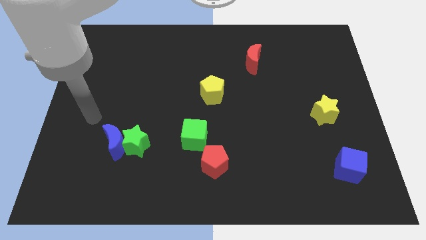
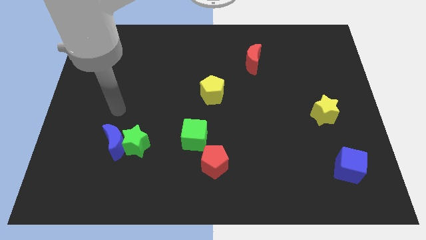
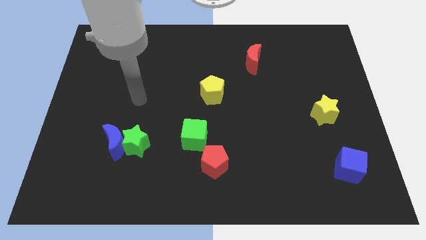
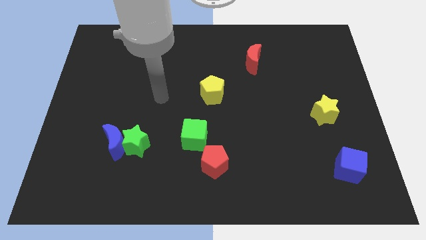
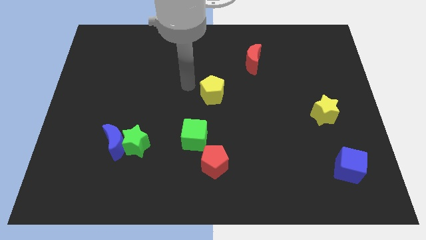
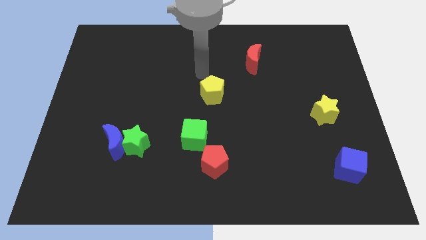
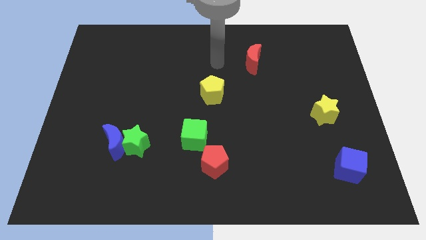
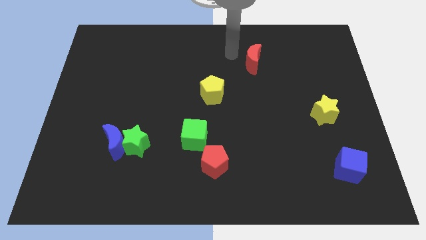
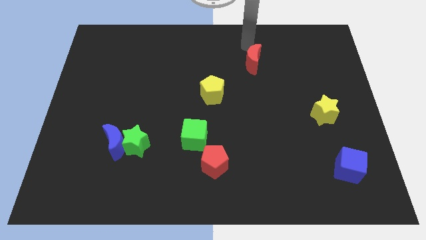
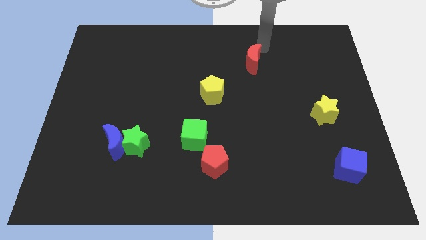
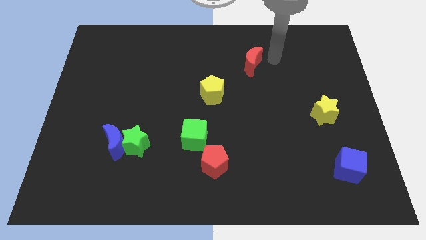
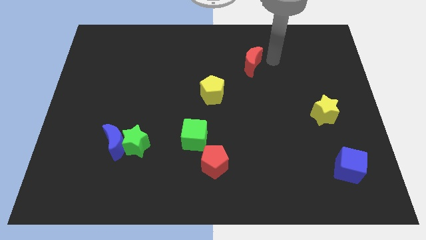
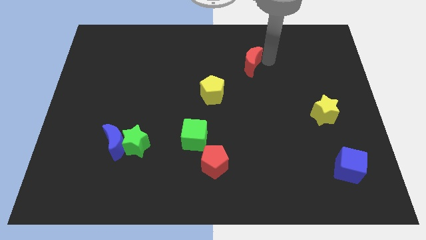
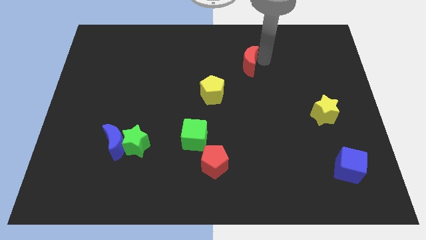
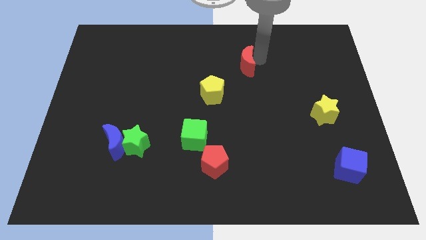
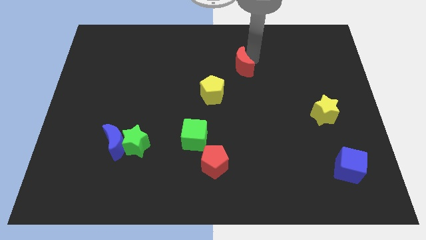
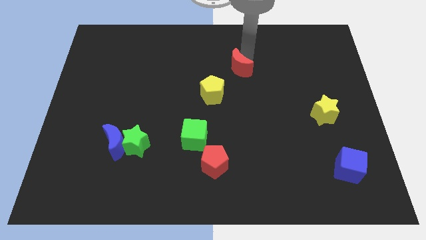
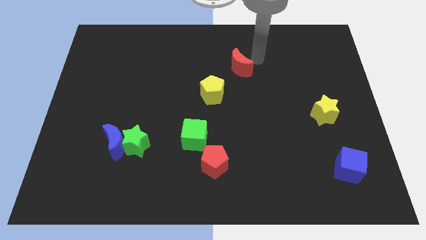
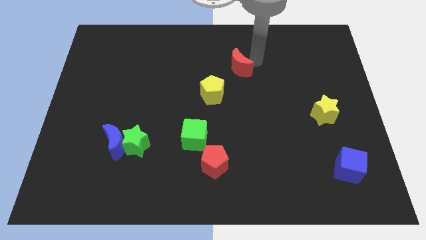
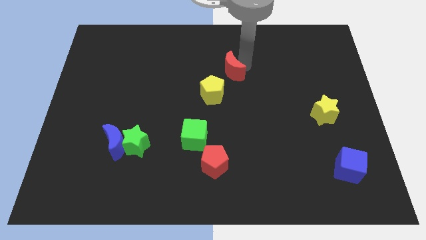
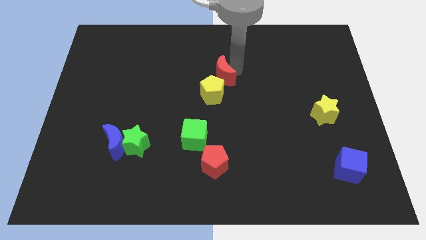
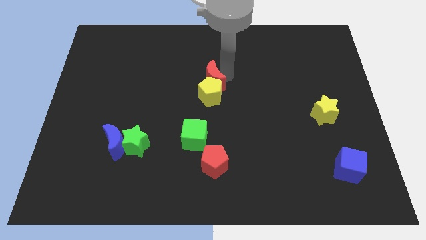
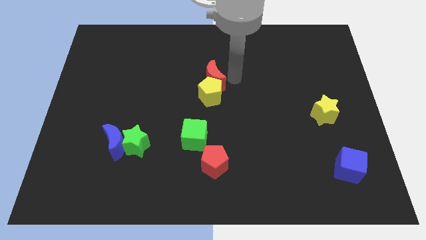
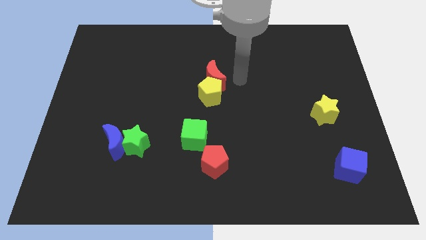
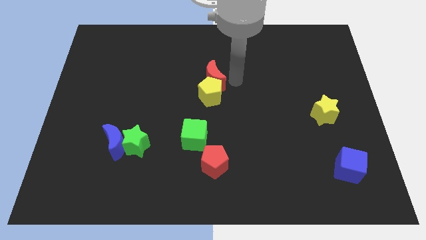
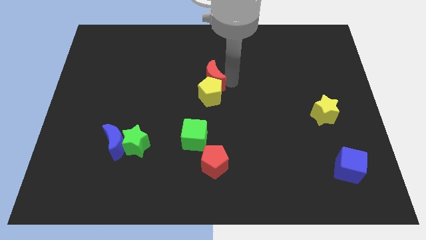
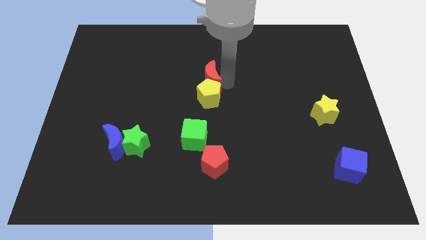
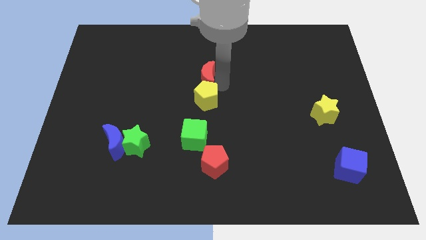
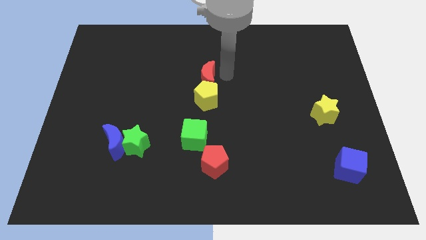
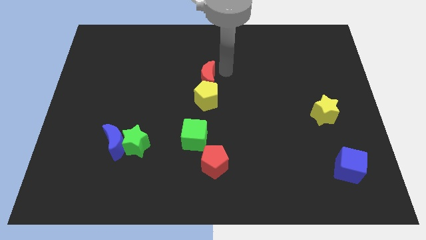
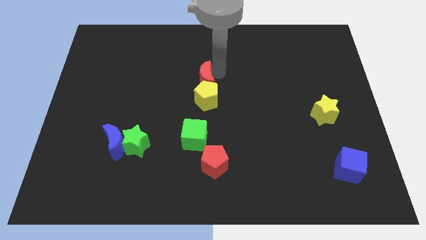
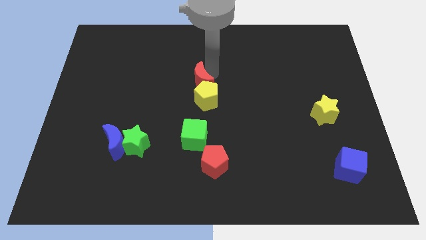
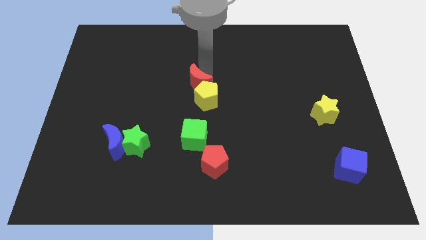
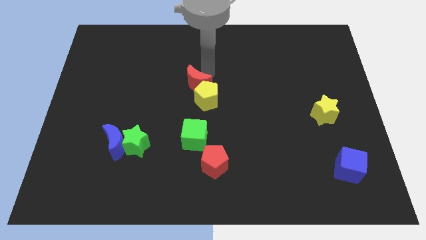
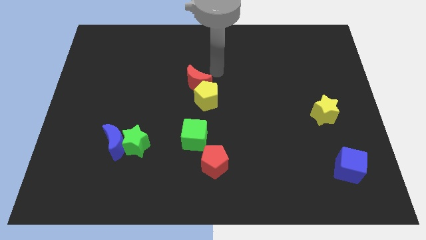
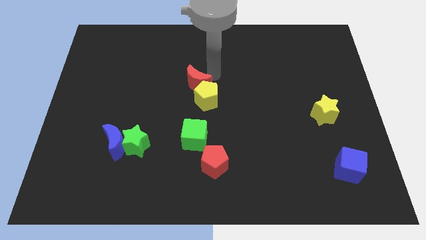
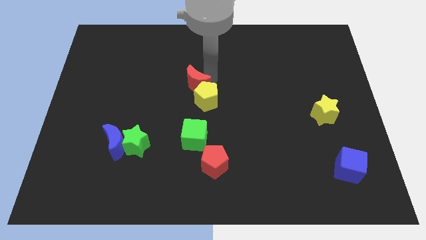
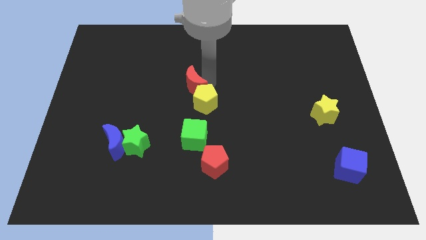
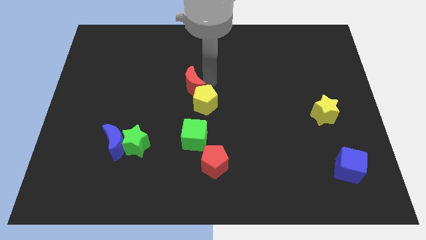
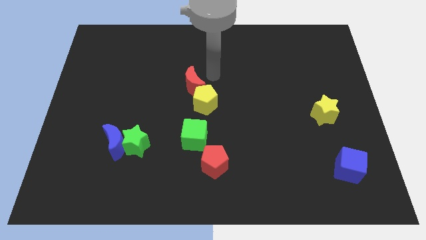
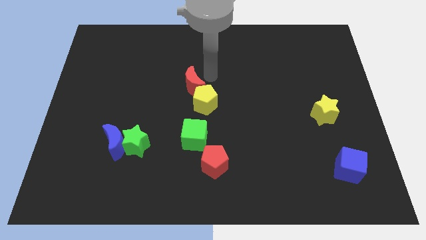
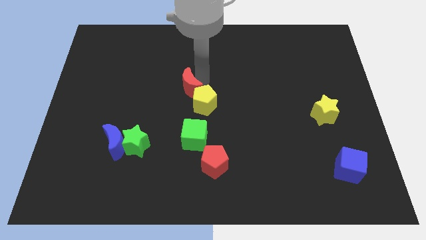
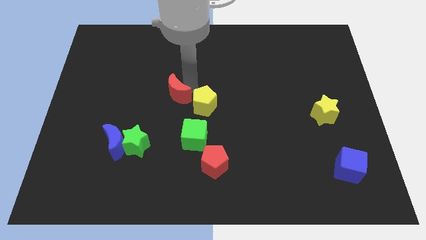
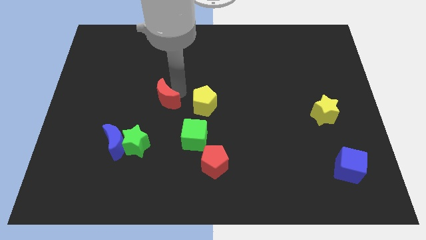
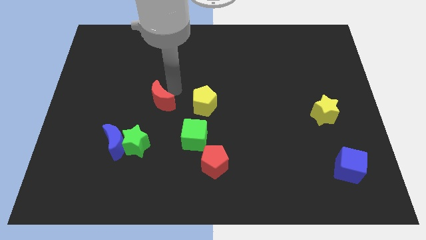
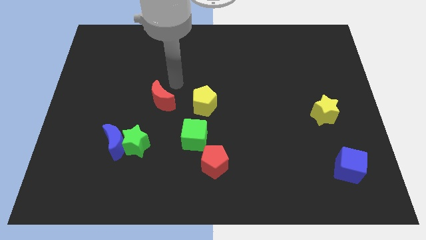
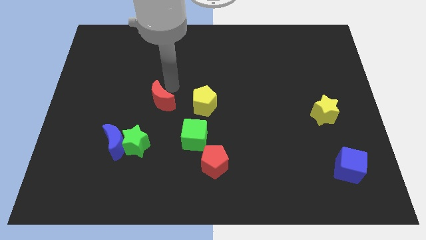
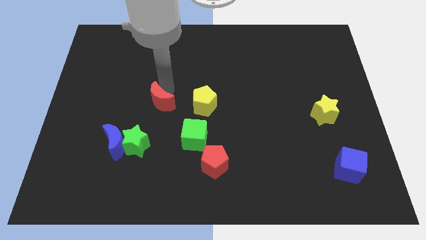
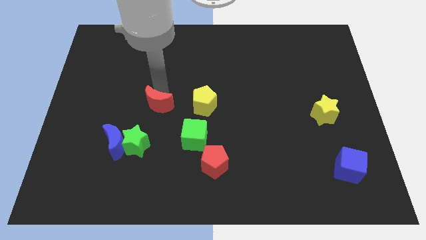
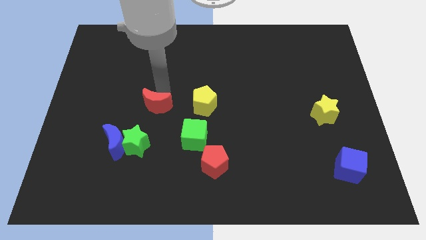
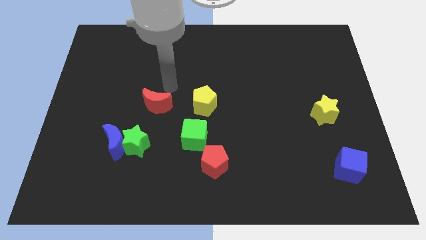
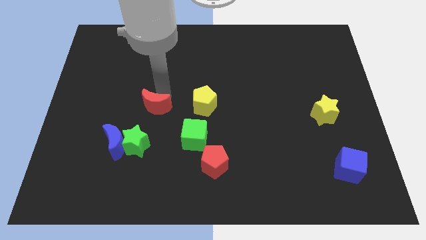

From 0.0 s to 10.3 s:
move the red moon to the top right side of the blue moon

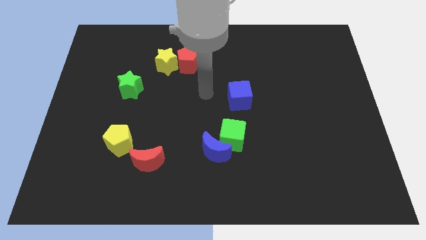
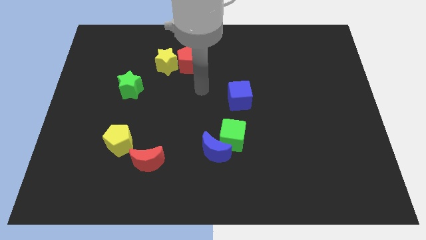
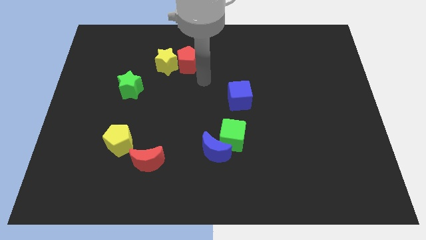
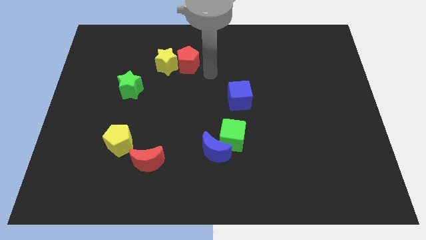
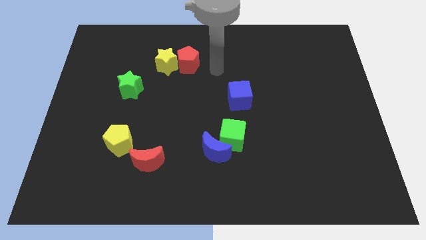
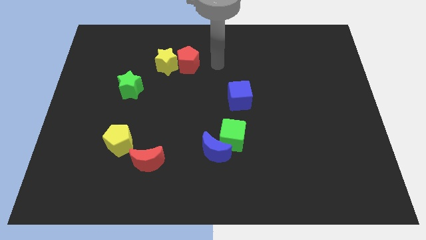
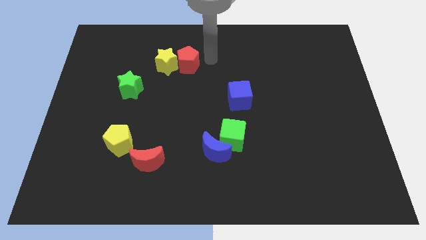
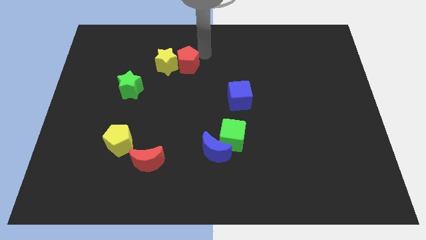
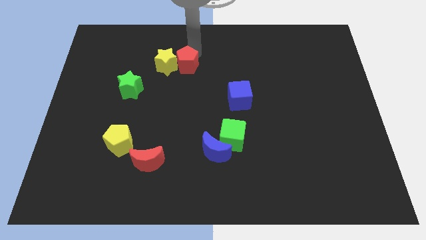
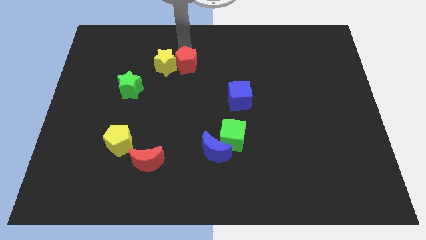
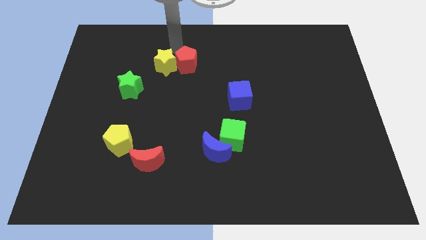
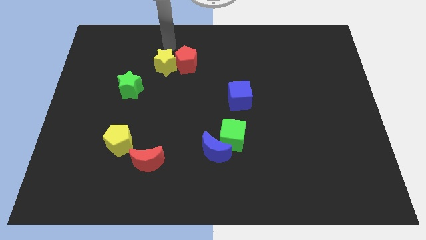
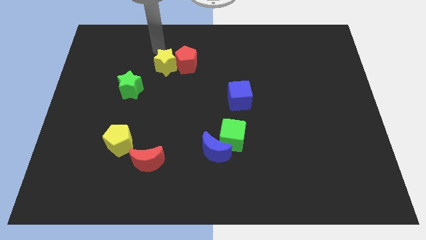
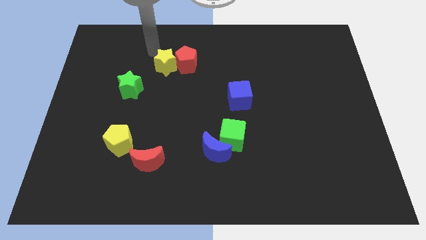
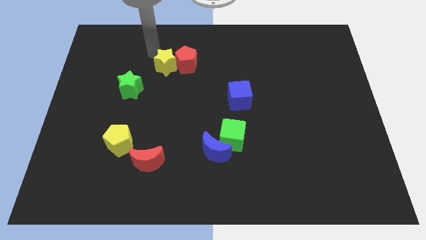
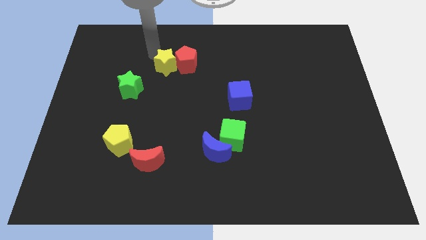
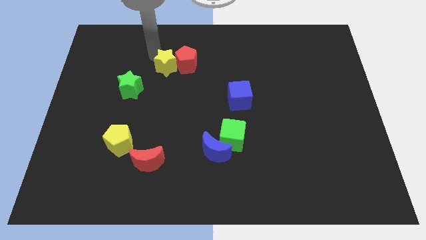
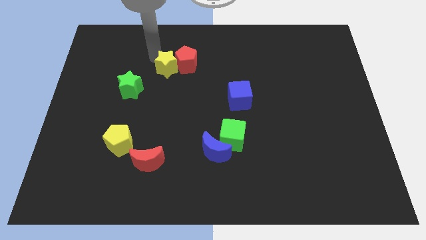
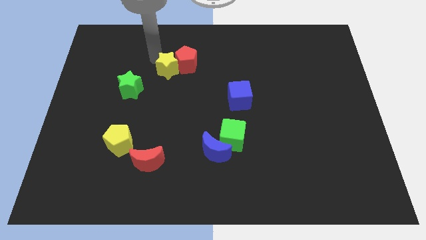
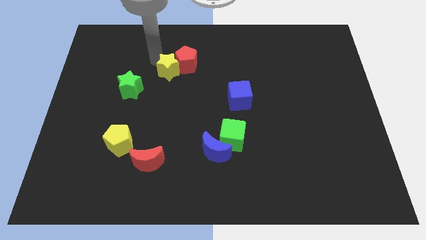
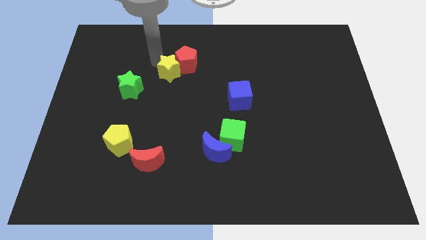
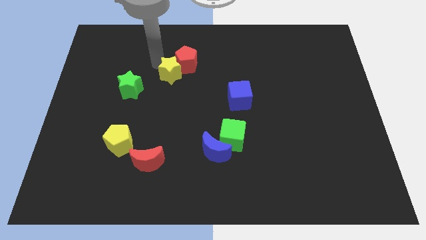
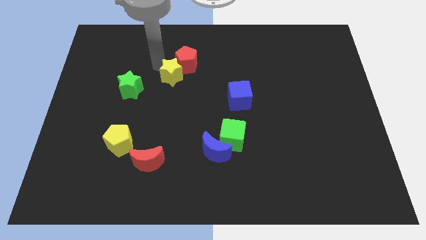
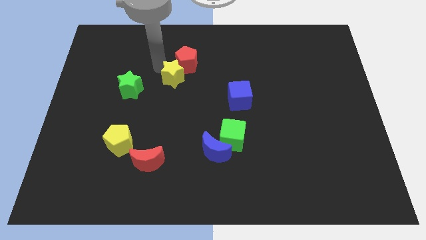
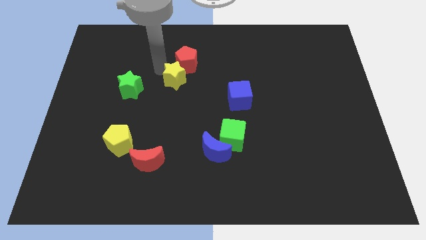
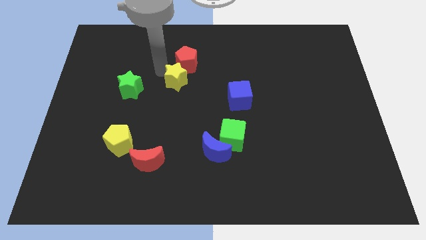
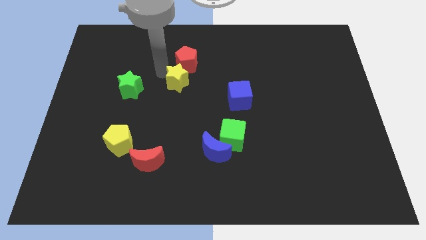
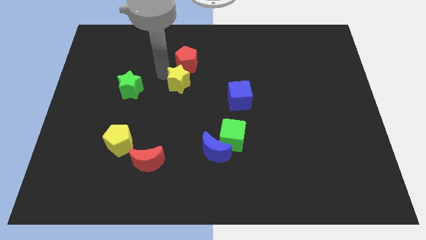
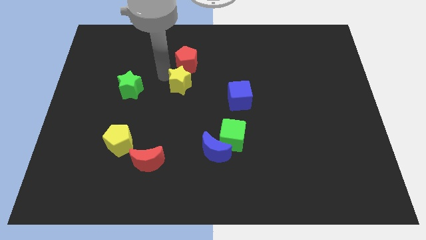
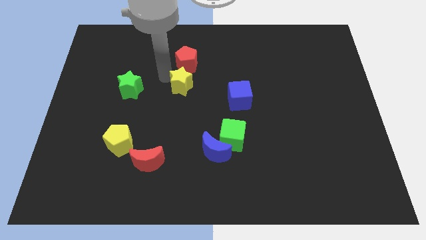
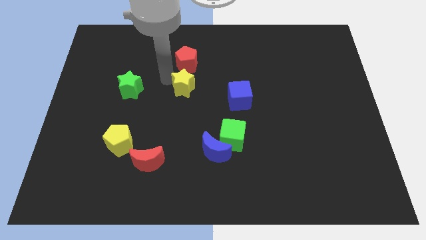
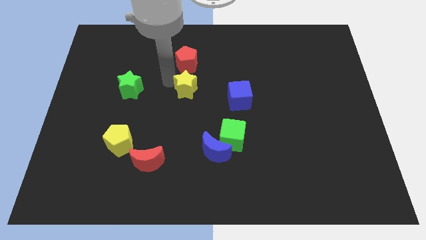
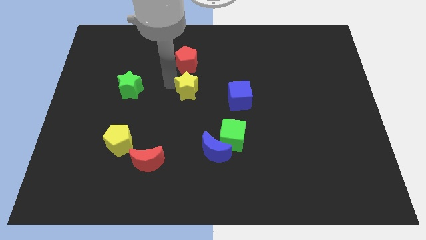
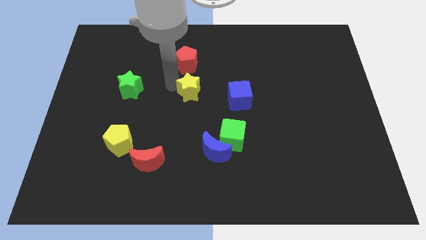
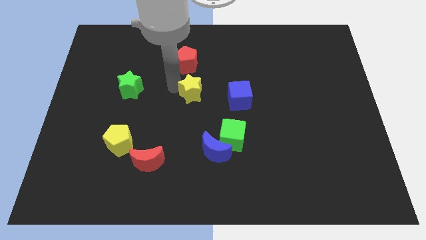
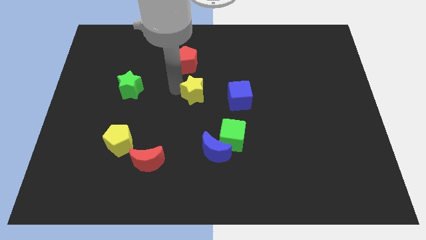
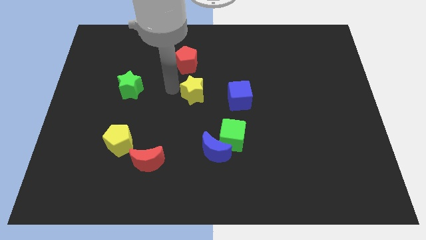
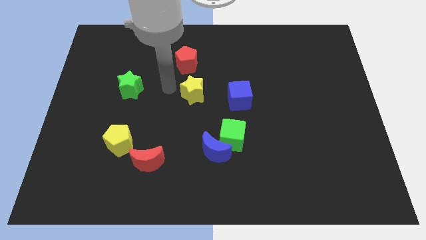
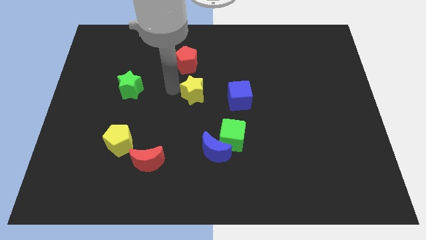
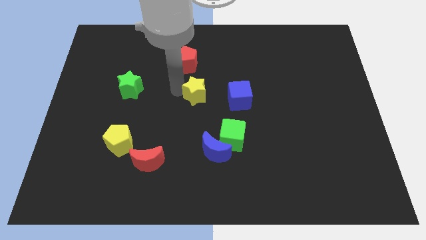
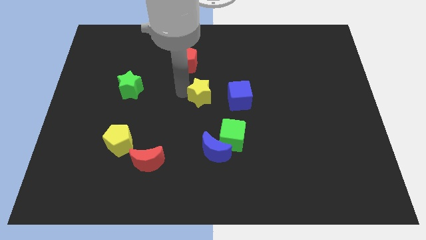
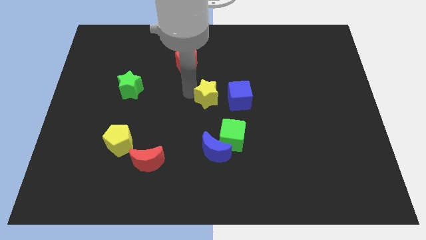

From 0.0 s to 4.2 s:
move the yellow star above the blue moon
